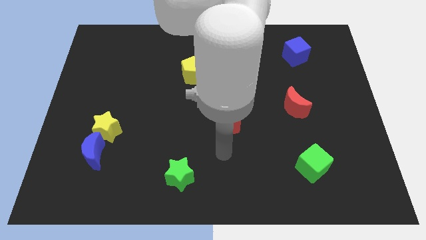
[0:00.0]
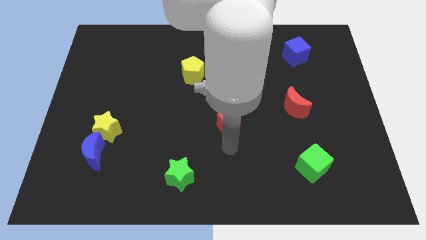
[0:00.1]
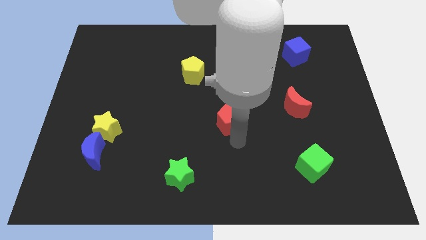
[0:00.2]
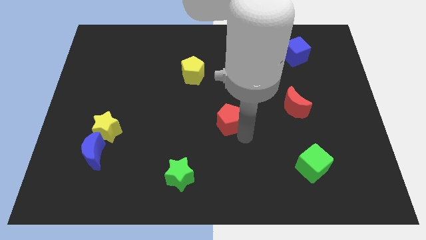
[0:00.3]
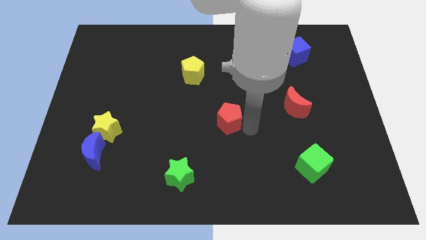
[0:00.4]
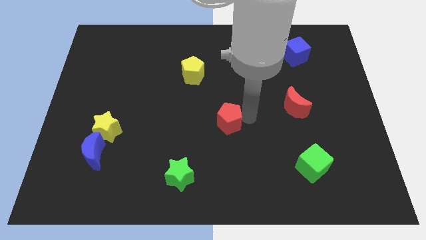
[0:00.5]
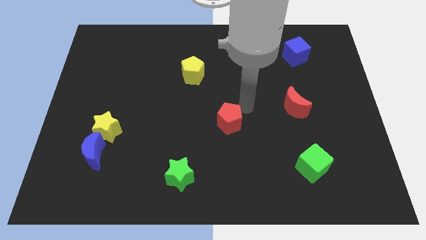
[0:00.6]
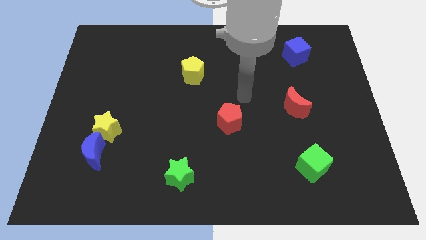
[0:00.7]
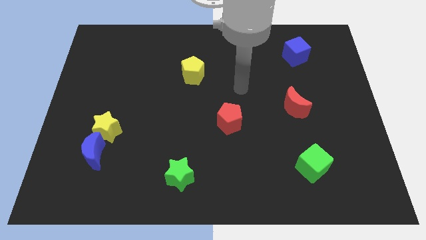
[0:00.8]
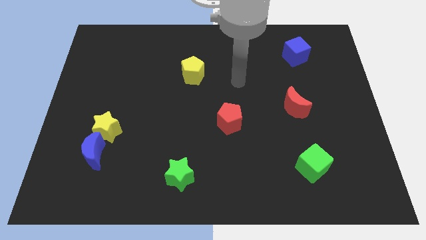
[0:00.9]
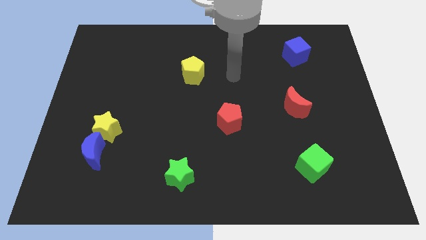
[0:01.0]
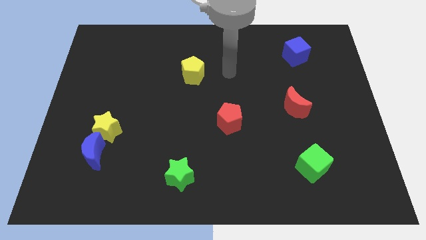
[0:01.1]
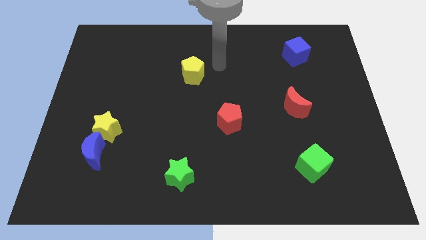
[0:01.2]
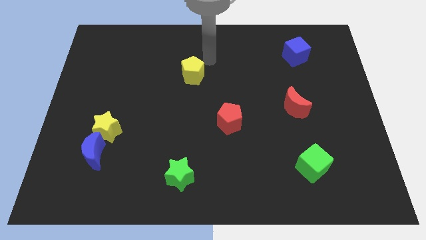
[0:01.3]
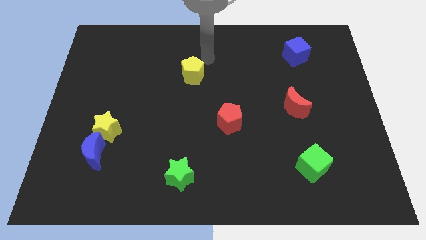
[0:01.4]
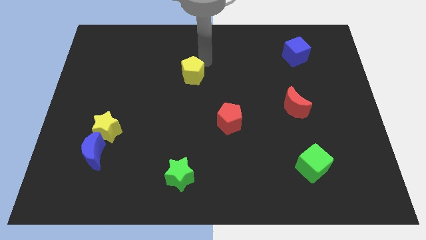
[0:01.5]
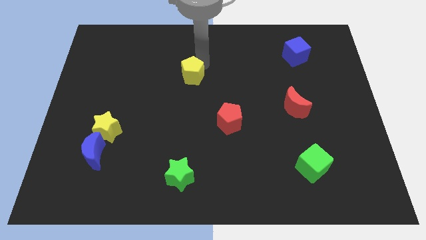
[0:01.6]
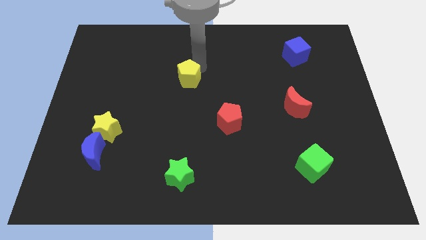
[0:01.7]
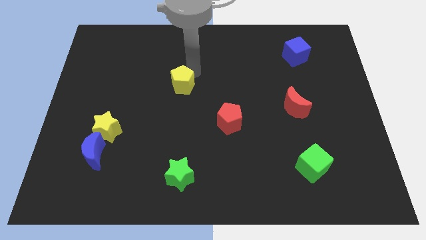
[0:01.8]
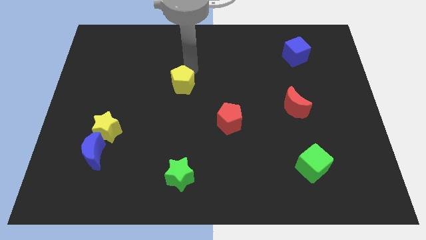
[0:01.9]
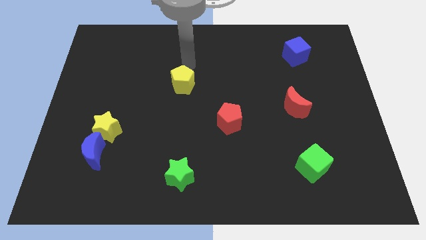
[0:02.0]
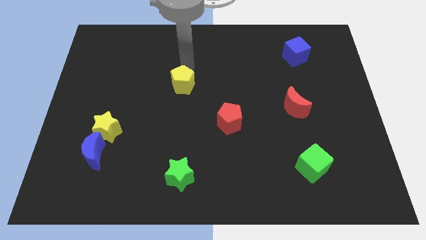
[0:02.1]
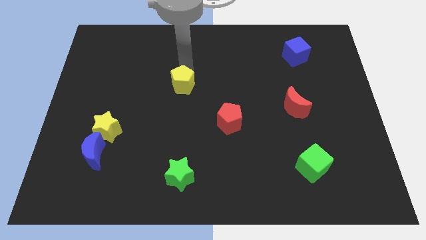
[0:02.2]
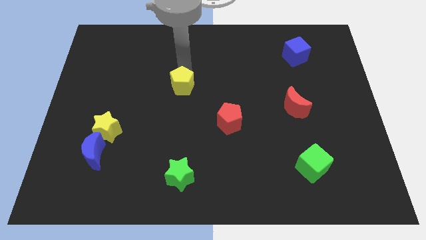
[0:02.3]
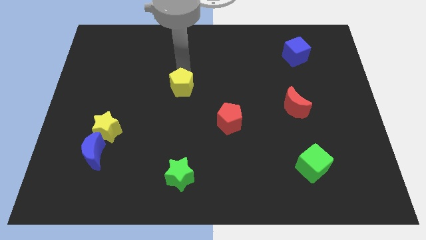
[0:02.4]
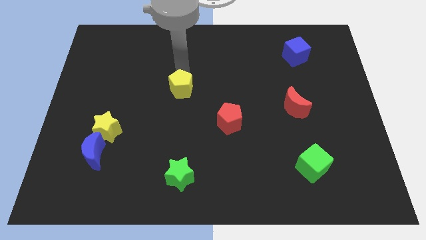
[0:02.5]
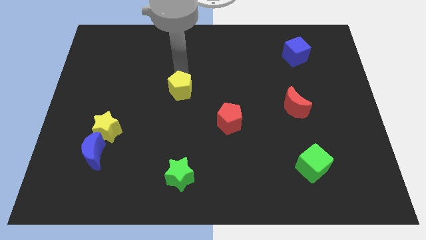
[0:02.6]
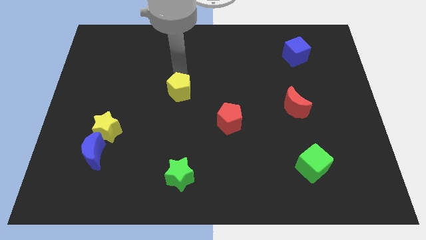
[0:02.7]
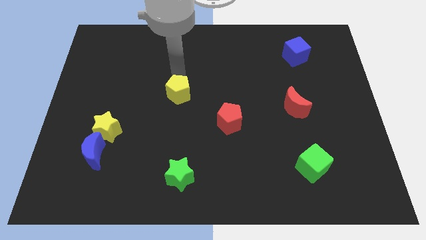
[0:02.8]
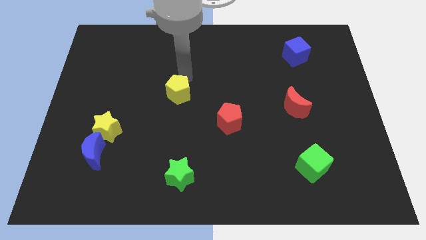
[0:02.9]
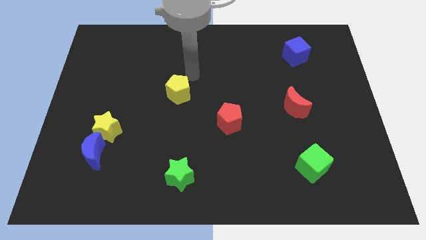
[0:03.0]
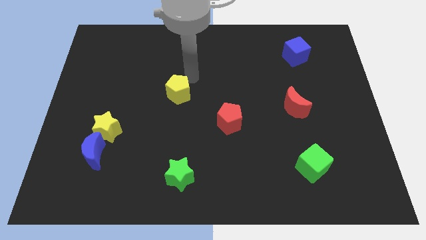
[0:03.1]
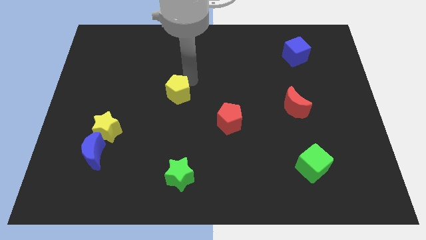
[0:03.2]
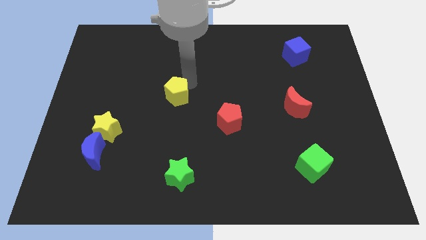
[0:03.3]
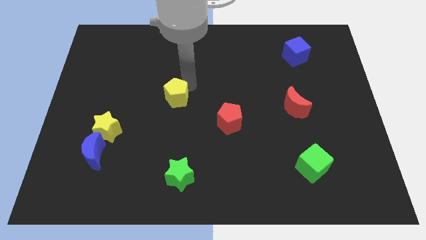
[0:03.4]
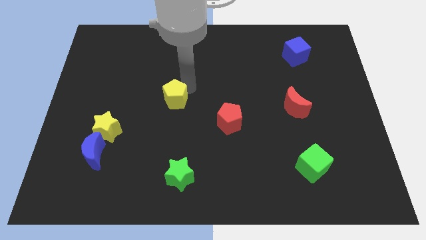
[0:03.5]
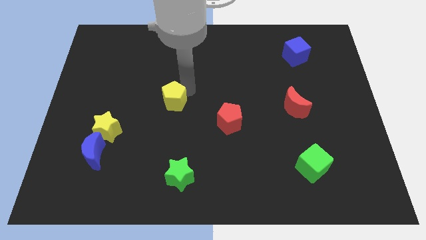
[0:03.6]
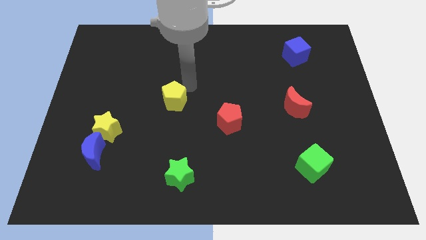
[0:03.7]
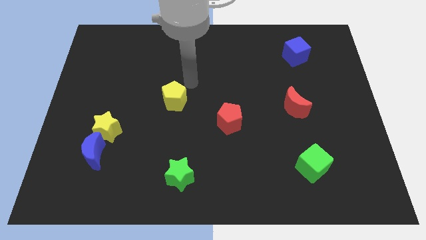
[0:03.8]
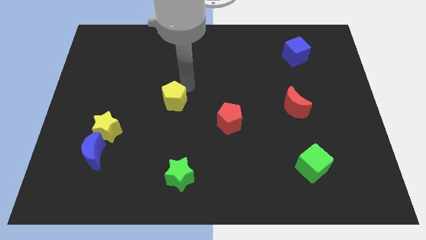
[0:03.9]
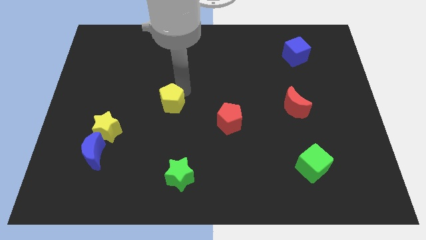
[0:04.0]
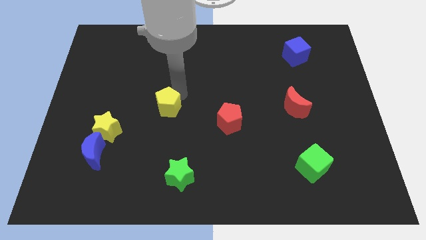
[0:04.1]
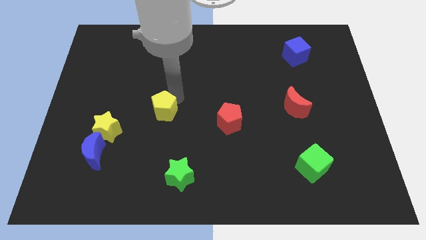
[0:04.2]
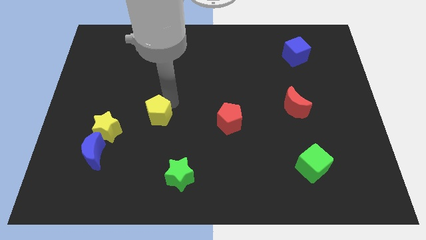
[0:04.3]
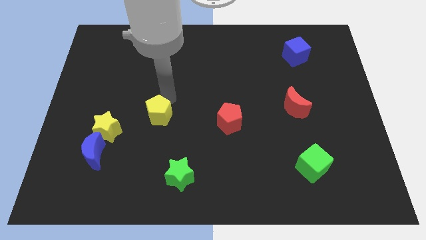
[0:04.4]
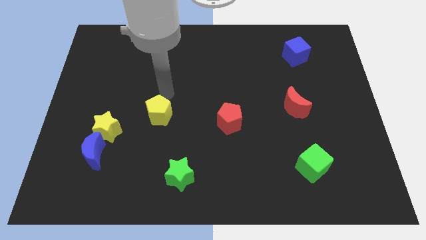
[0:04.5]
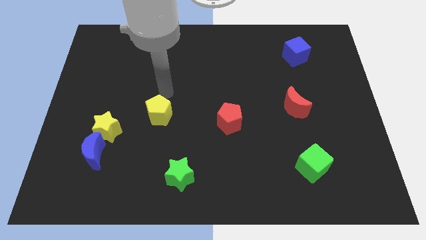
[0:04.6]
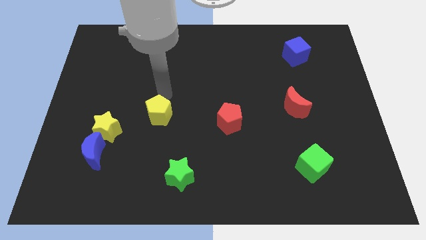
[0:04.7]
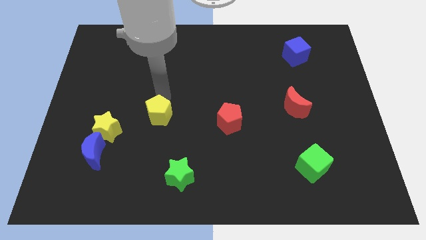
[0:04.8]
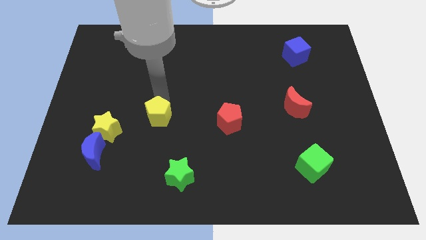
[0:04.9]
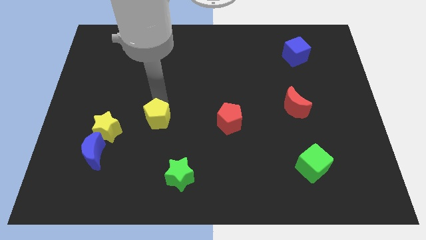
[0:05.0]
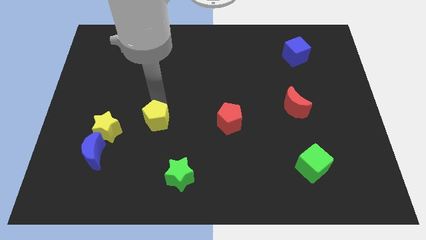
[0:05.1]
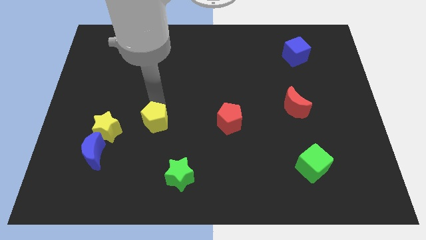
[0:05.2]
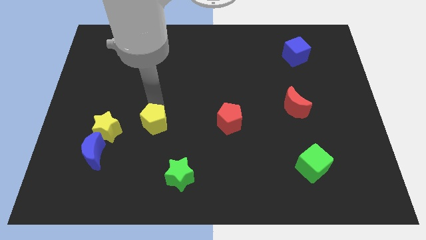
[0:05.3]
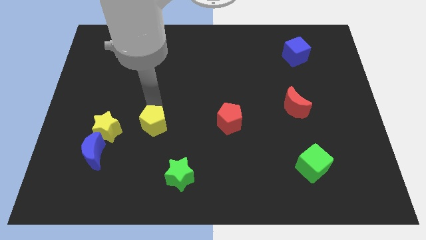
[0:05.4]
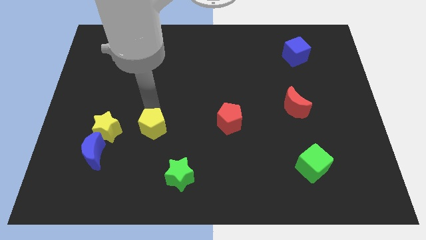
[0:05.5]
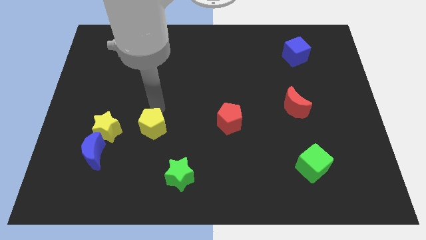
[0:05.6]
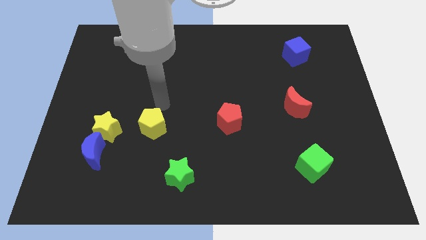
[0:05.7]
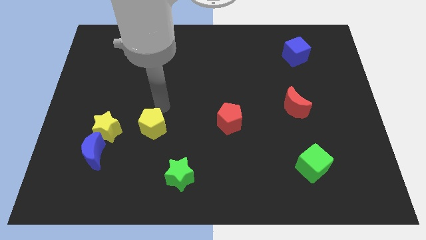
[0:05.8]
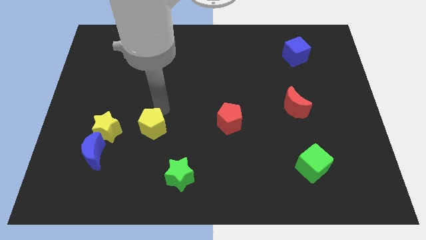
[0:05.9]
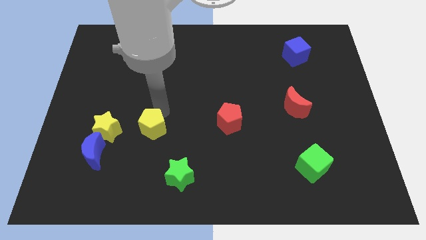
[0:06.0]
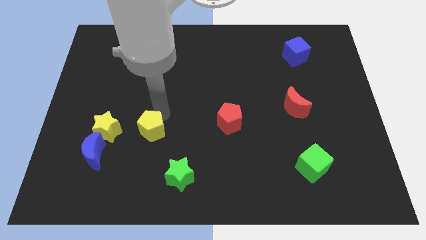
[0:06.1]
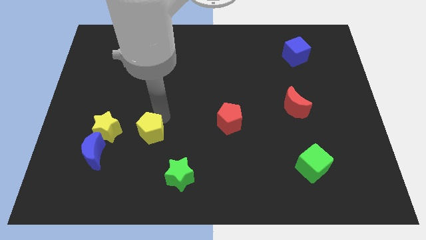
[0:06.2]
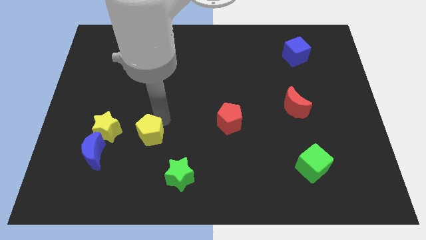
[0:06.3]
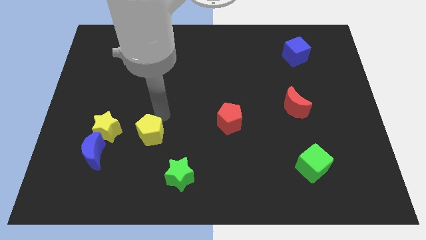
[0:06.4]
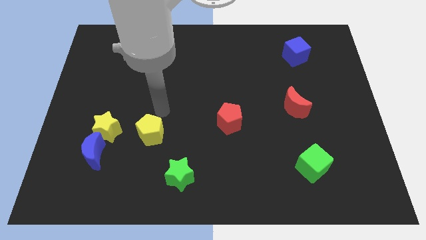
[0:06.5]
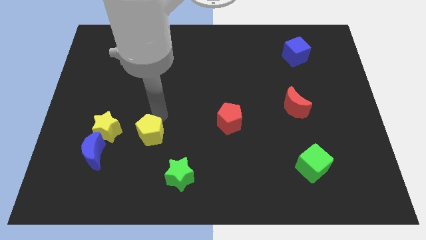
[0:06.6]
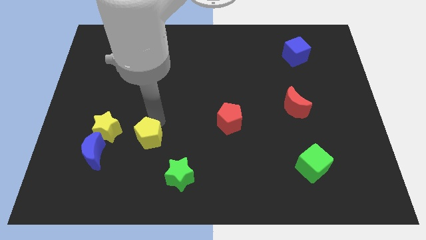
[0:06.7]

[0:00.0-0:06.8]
move the yellow pentagon to the right of the blue moon

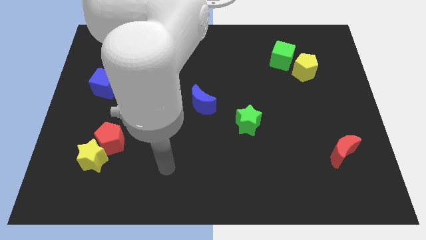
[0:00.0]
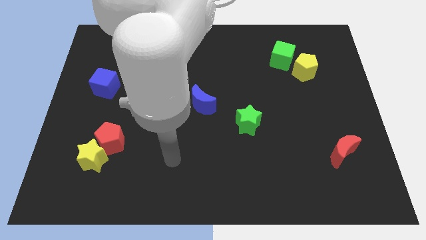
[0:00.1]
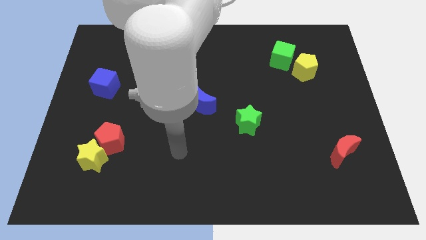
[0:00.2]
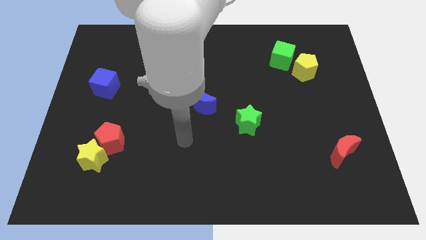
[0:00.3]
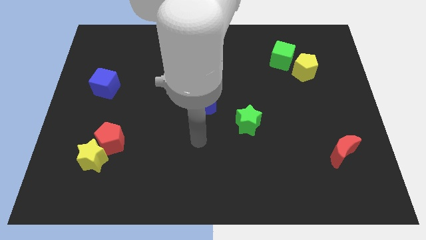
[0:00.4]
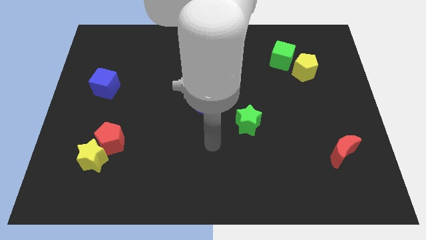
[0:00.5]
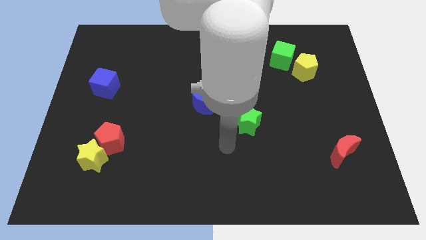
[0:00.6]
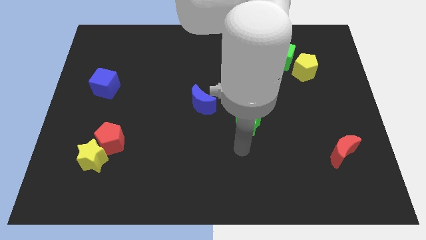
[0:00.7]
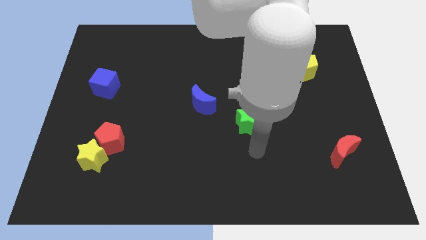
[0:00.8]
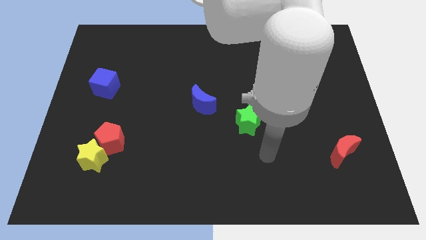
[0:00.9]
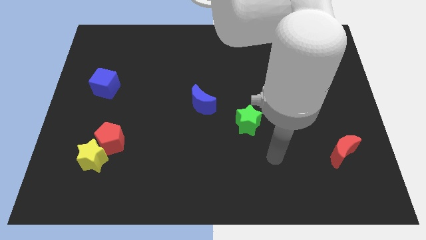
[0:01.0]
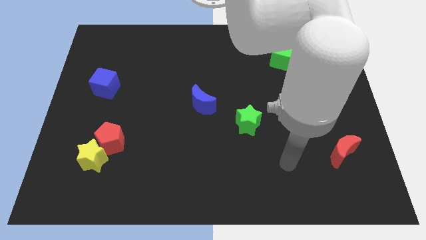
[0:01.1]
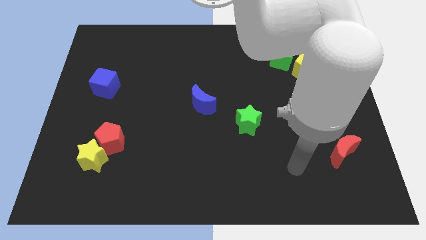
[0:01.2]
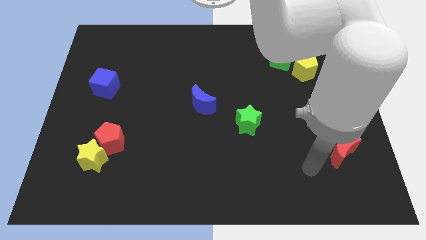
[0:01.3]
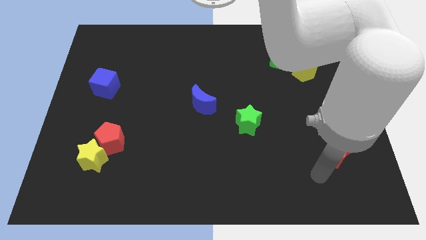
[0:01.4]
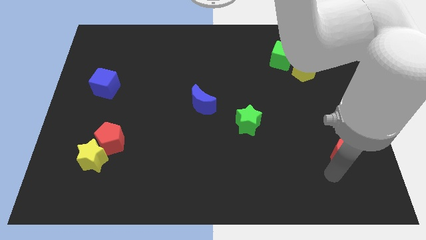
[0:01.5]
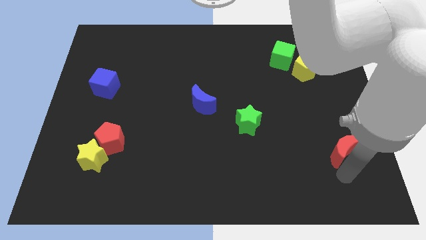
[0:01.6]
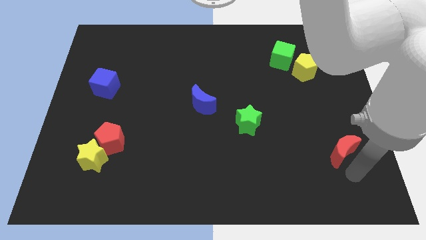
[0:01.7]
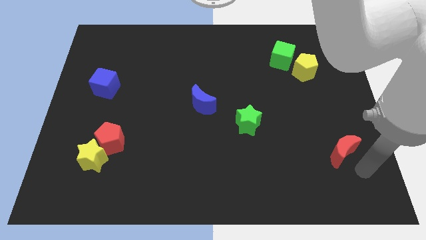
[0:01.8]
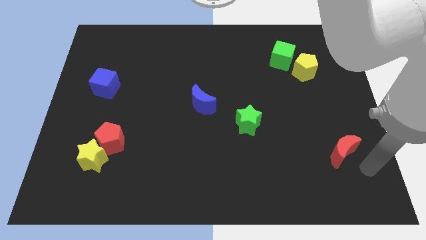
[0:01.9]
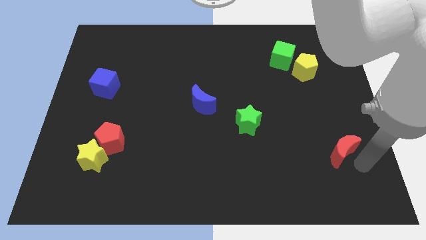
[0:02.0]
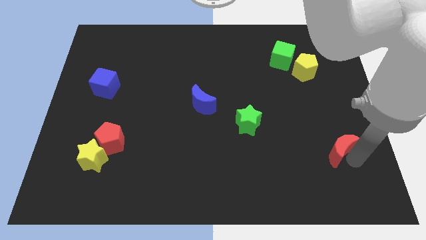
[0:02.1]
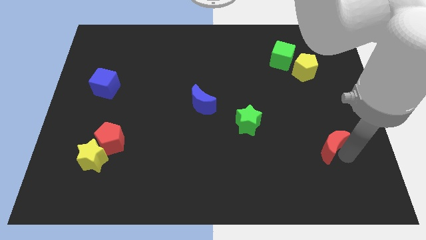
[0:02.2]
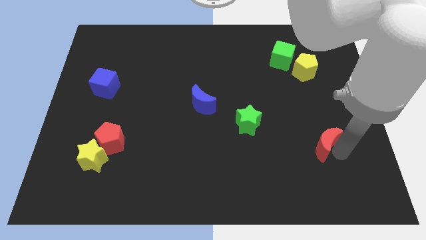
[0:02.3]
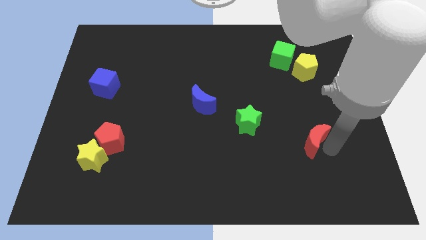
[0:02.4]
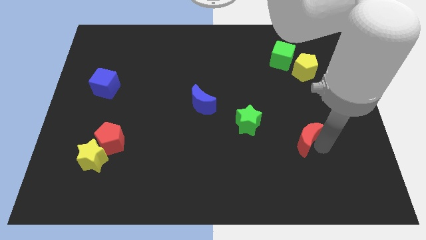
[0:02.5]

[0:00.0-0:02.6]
push the red moon just right of the green star
